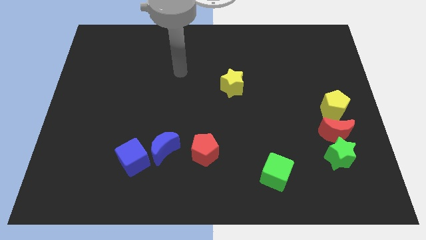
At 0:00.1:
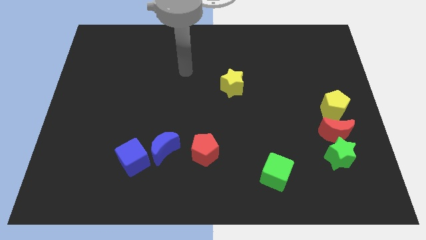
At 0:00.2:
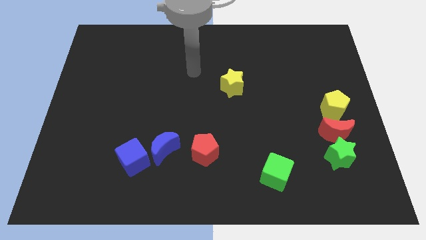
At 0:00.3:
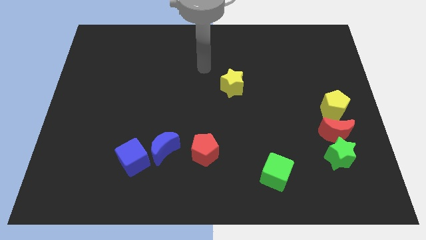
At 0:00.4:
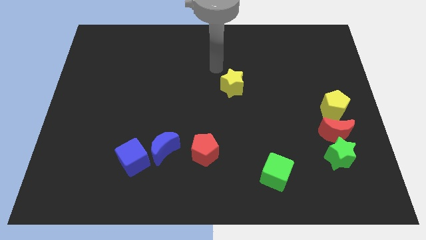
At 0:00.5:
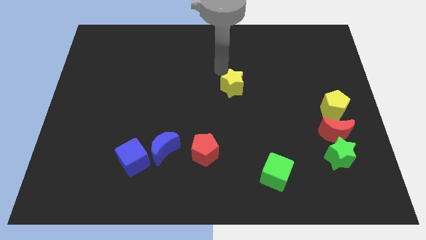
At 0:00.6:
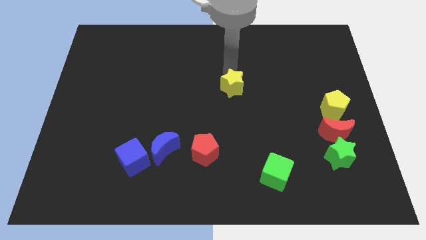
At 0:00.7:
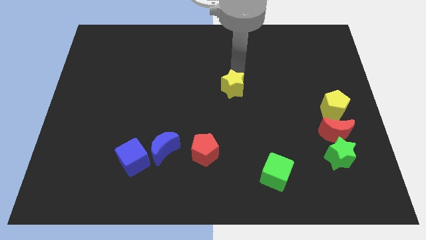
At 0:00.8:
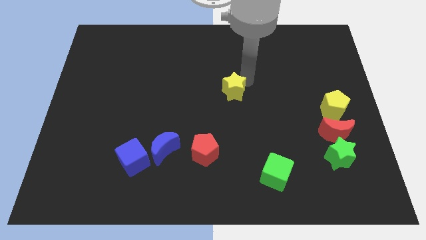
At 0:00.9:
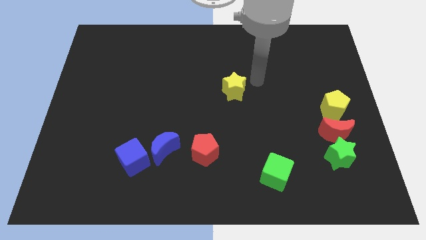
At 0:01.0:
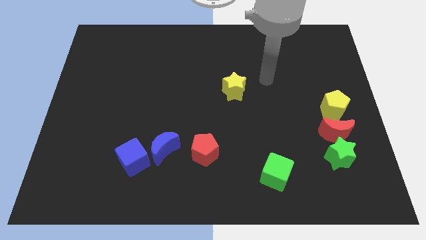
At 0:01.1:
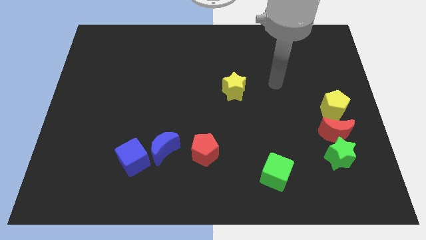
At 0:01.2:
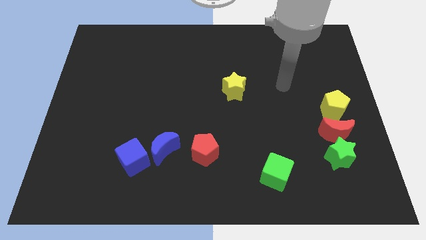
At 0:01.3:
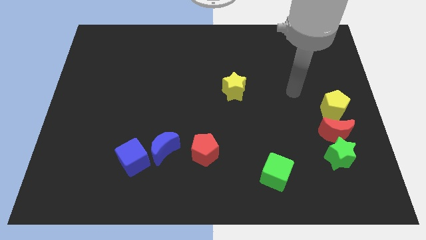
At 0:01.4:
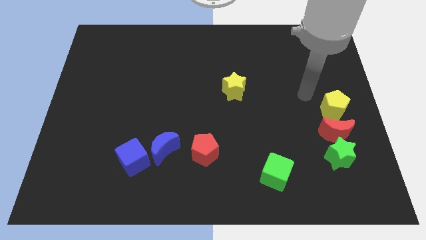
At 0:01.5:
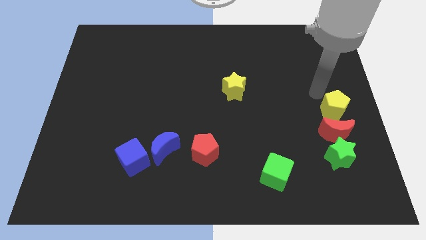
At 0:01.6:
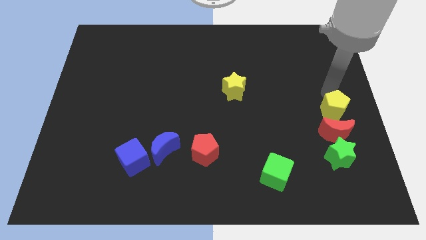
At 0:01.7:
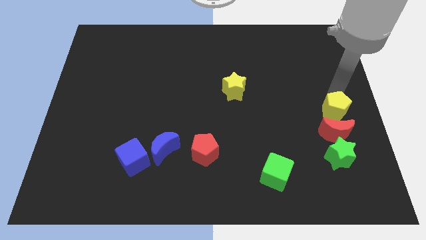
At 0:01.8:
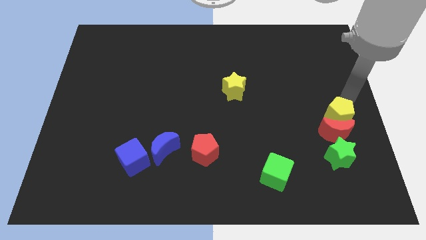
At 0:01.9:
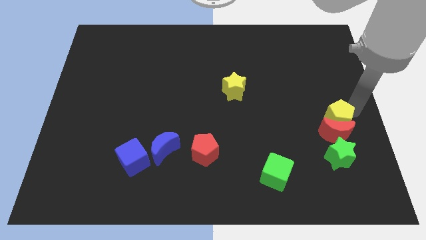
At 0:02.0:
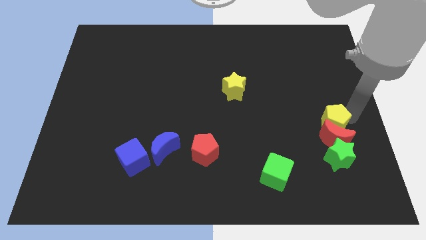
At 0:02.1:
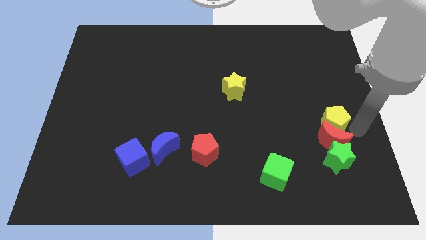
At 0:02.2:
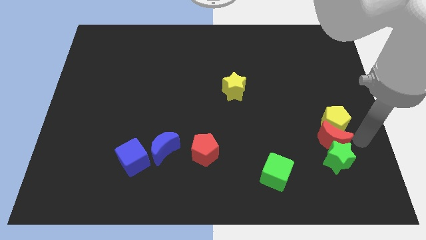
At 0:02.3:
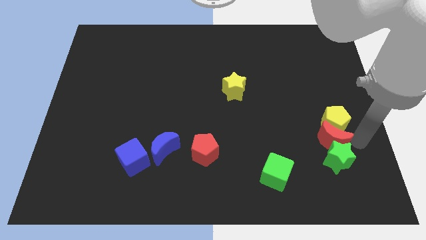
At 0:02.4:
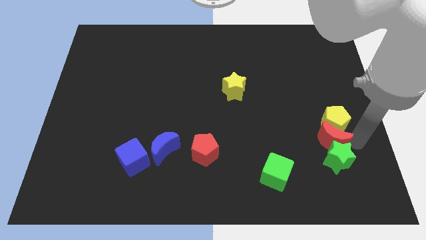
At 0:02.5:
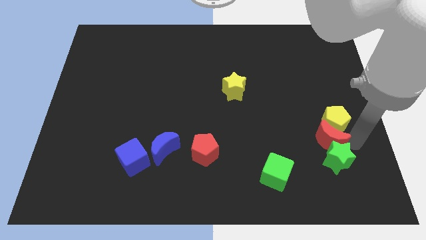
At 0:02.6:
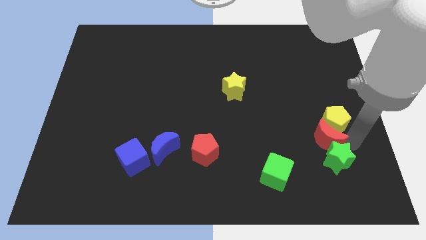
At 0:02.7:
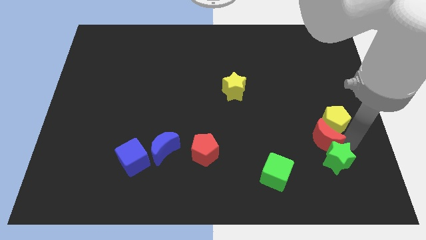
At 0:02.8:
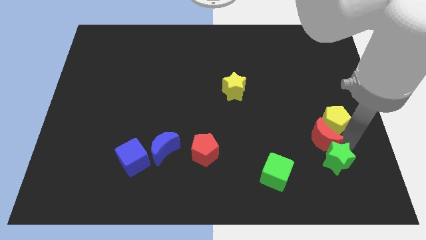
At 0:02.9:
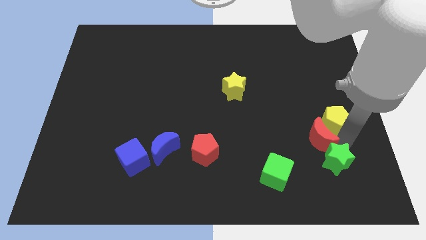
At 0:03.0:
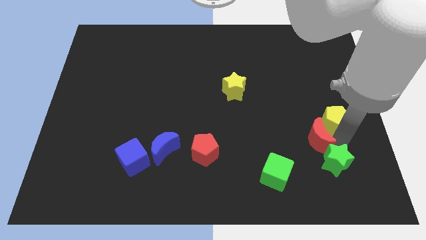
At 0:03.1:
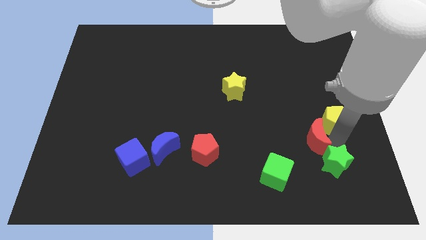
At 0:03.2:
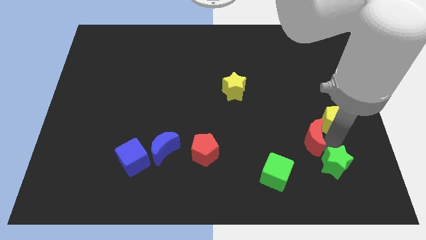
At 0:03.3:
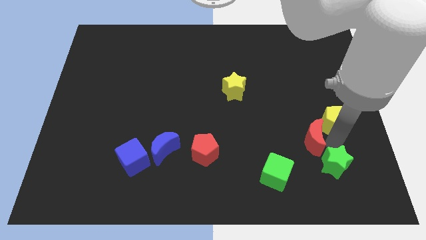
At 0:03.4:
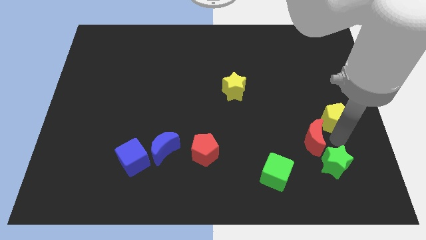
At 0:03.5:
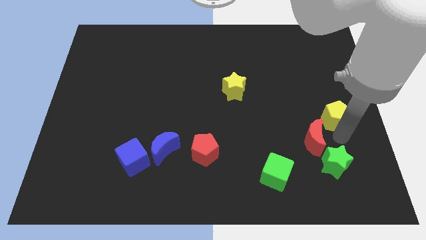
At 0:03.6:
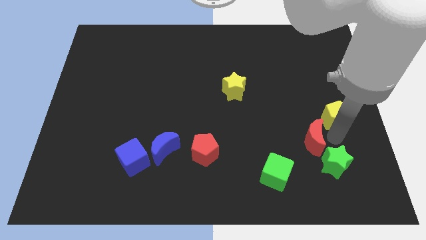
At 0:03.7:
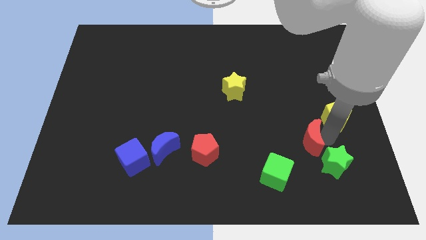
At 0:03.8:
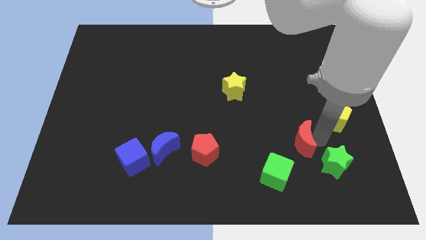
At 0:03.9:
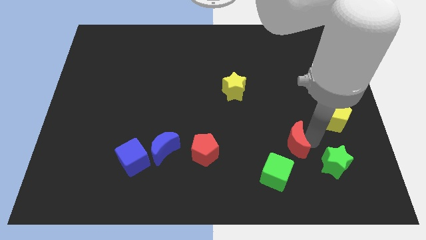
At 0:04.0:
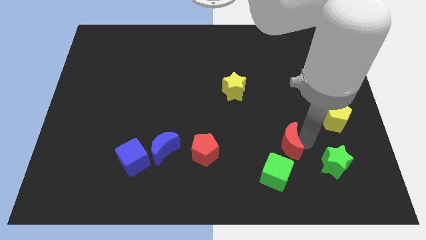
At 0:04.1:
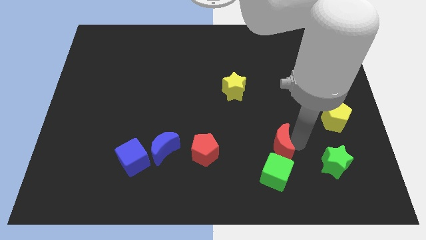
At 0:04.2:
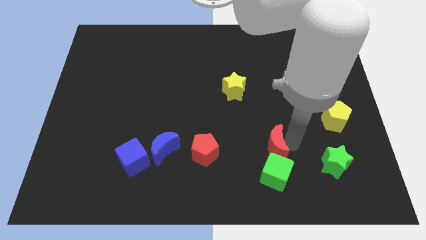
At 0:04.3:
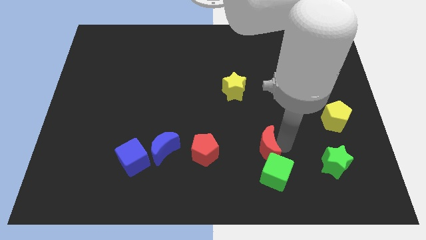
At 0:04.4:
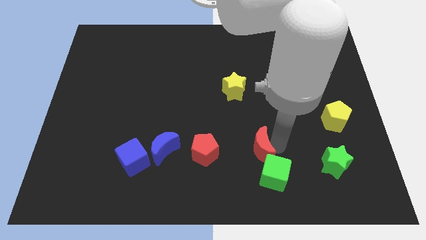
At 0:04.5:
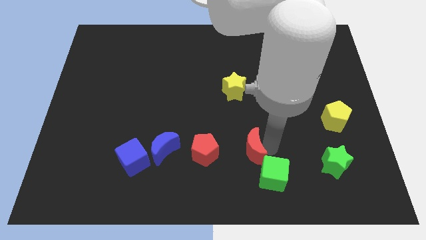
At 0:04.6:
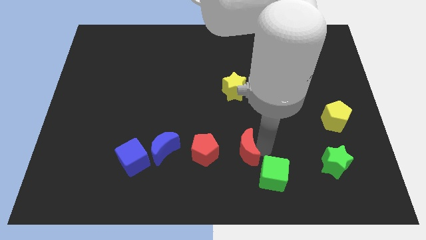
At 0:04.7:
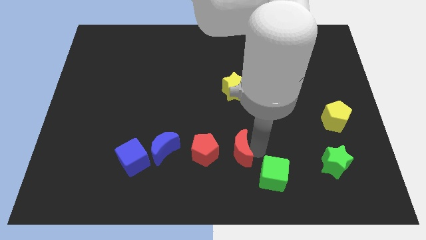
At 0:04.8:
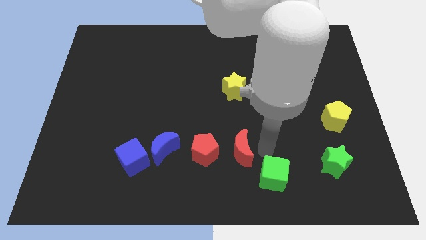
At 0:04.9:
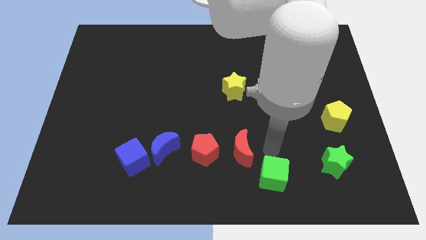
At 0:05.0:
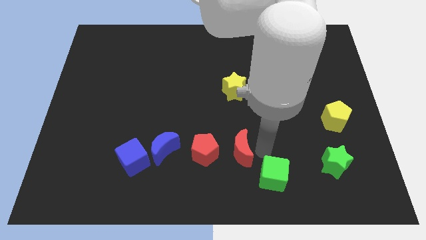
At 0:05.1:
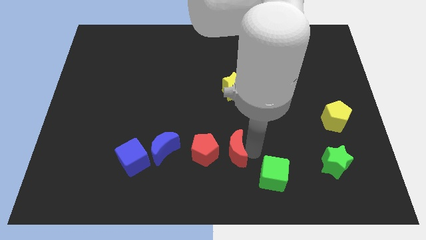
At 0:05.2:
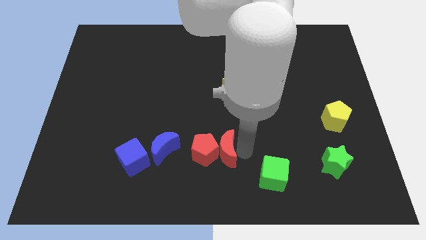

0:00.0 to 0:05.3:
push the red moon towards the red pentagon

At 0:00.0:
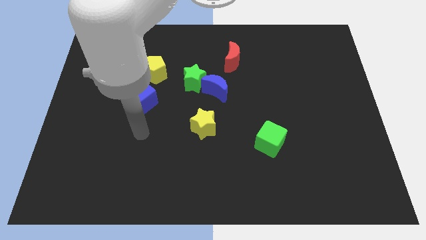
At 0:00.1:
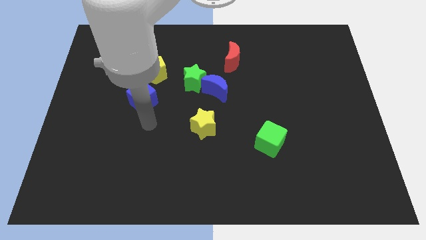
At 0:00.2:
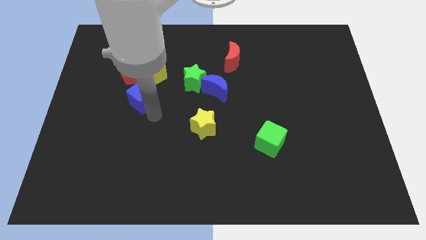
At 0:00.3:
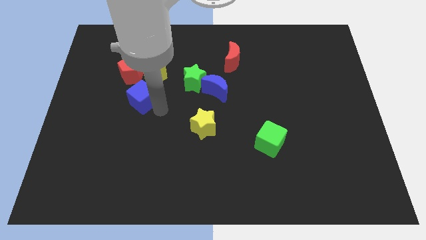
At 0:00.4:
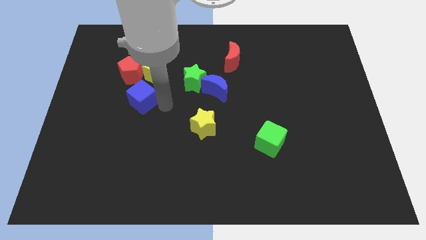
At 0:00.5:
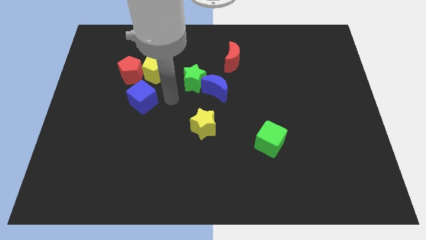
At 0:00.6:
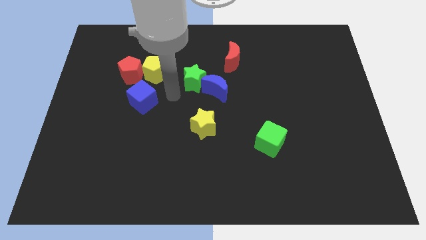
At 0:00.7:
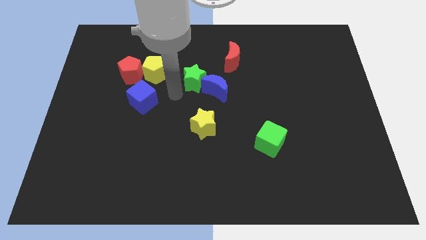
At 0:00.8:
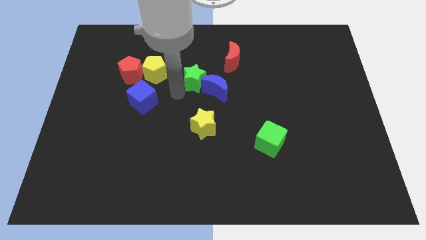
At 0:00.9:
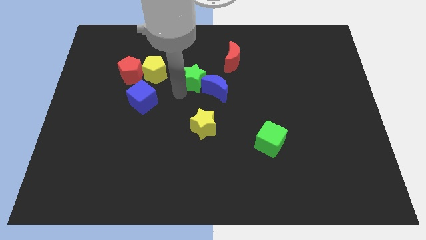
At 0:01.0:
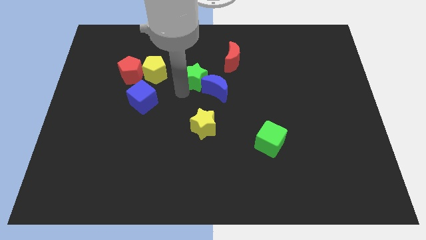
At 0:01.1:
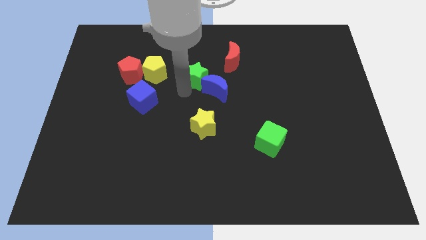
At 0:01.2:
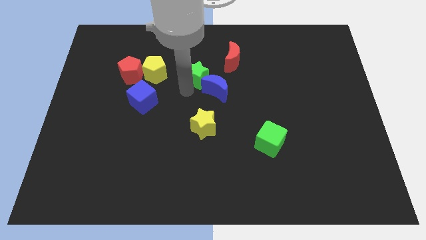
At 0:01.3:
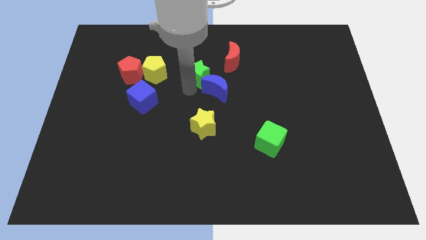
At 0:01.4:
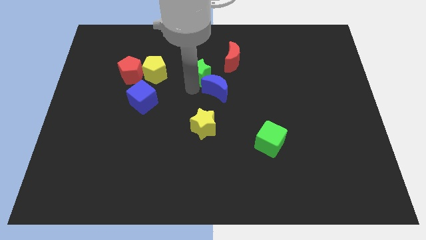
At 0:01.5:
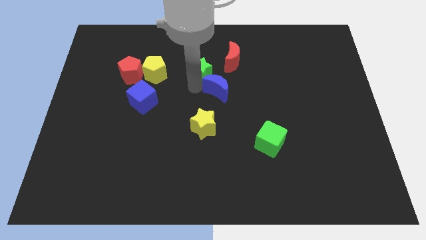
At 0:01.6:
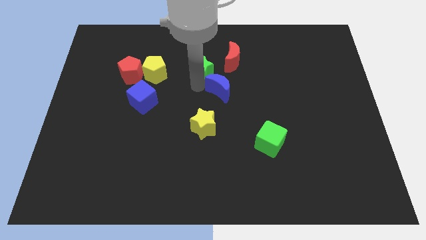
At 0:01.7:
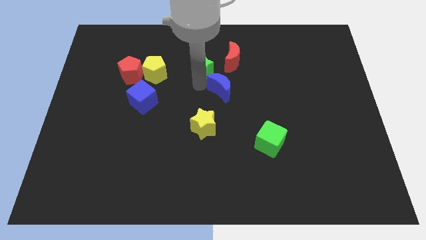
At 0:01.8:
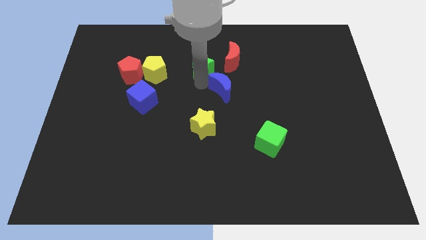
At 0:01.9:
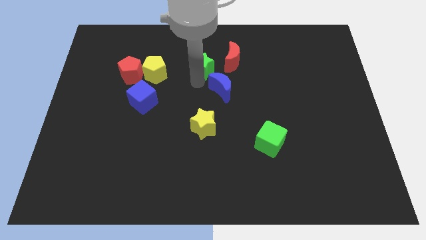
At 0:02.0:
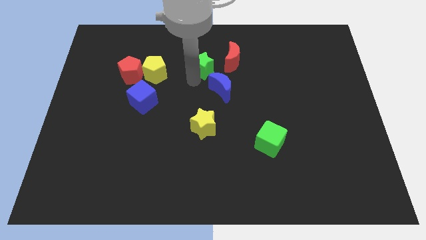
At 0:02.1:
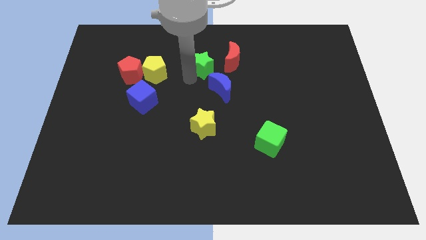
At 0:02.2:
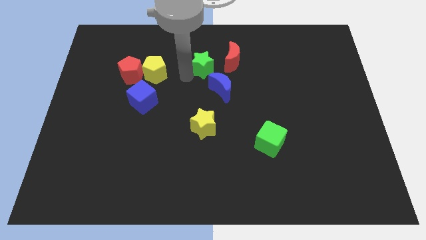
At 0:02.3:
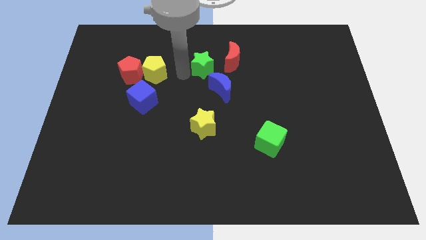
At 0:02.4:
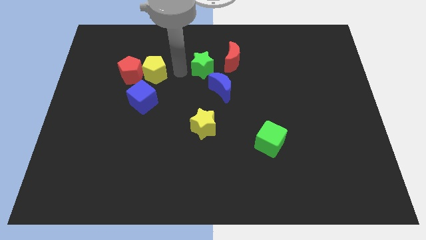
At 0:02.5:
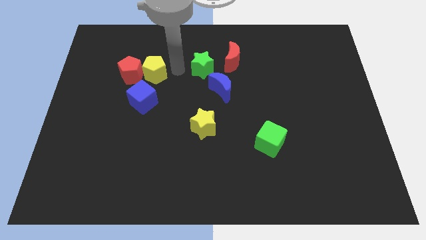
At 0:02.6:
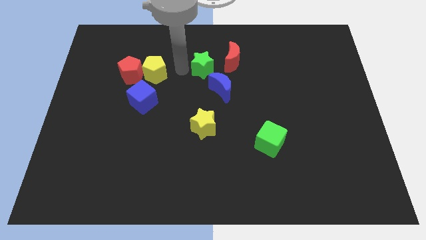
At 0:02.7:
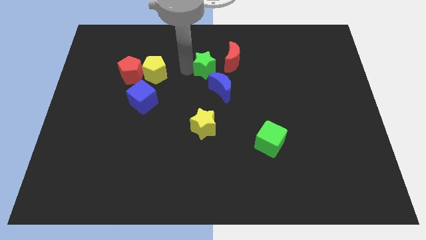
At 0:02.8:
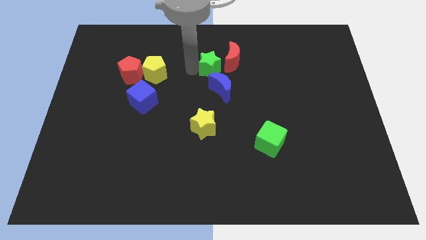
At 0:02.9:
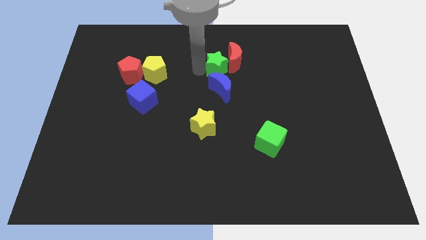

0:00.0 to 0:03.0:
push the green star next to the red moon
